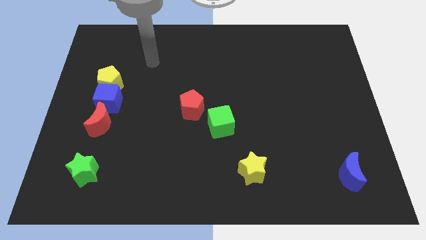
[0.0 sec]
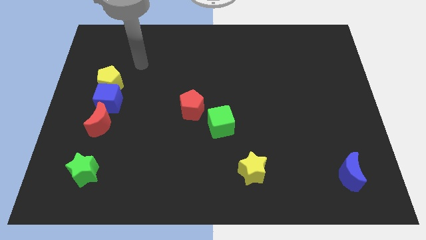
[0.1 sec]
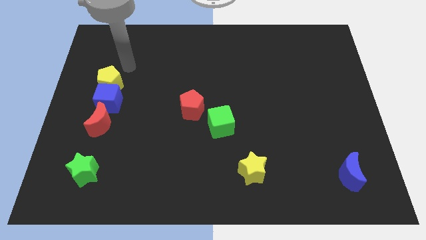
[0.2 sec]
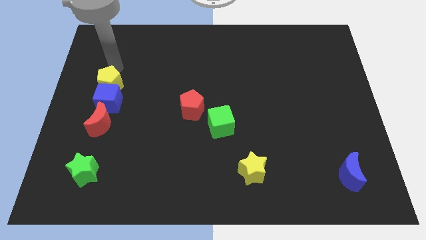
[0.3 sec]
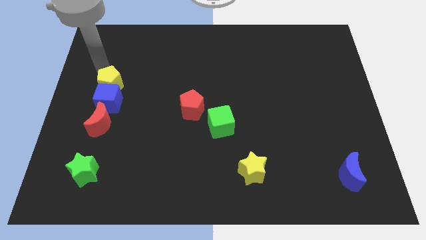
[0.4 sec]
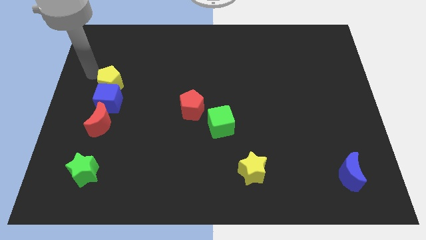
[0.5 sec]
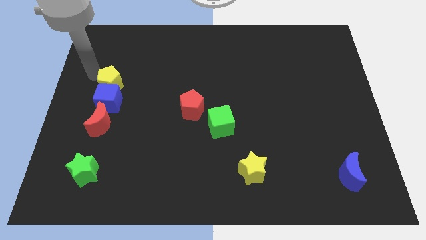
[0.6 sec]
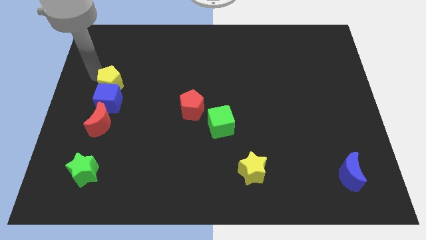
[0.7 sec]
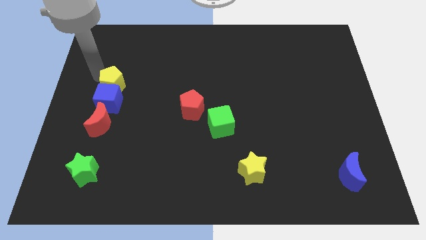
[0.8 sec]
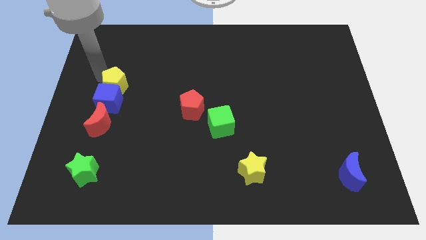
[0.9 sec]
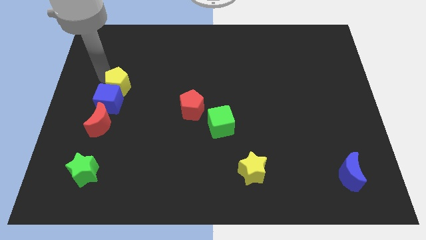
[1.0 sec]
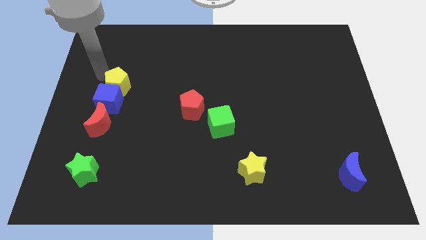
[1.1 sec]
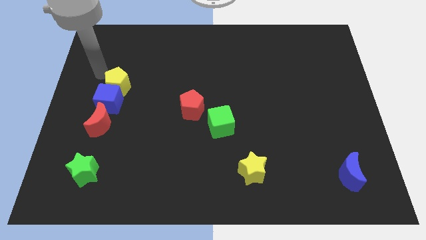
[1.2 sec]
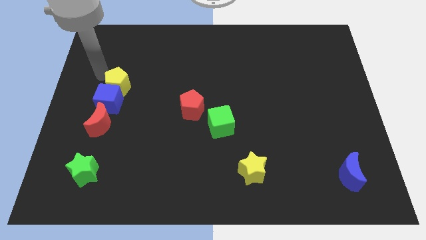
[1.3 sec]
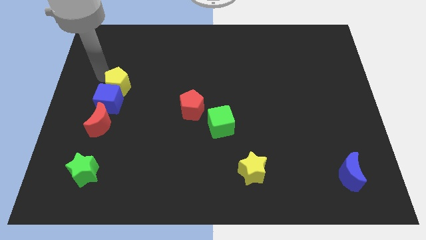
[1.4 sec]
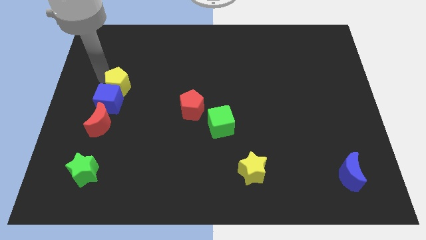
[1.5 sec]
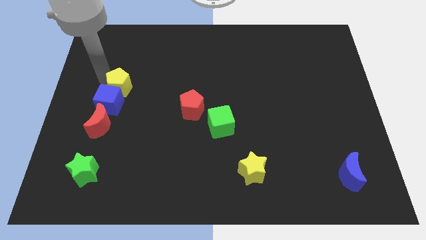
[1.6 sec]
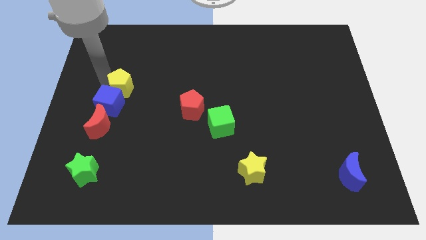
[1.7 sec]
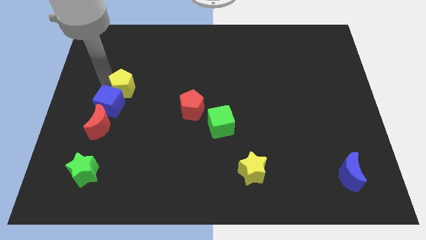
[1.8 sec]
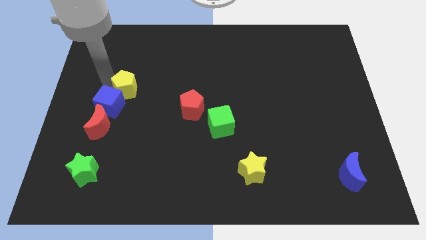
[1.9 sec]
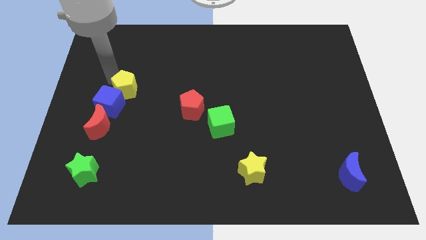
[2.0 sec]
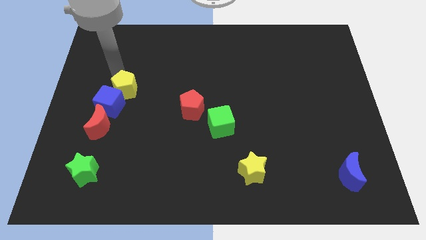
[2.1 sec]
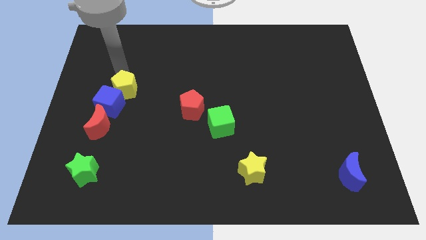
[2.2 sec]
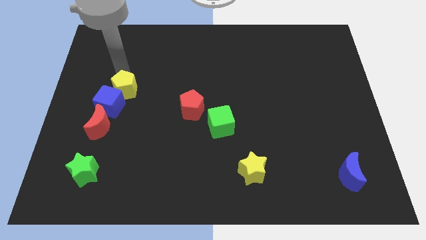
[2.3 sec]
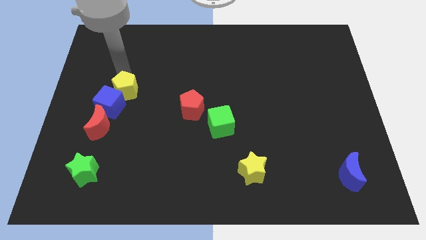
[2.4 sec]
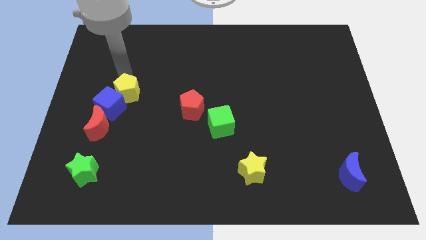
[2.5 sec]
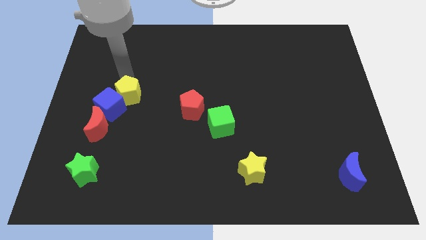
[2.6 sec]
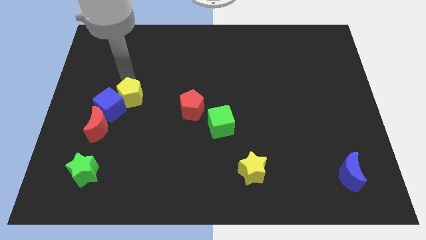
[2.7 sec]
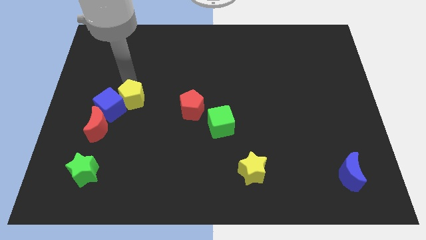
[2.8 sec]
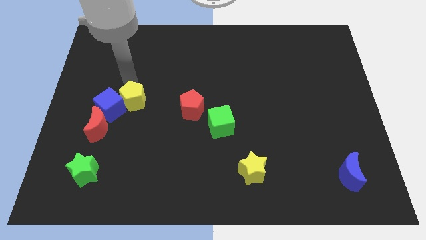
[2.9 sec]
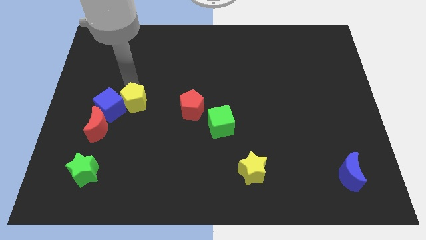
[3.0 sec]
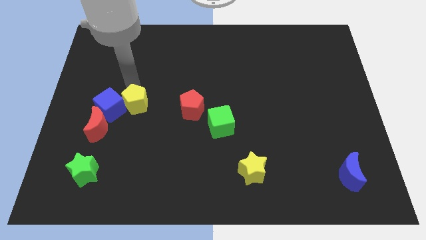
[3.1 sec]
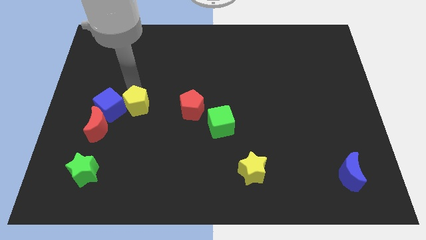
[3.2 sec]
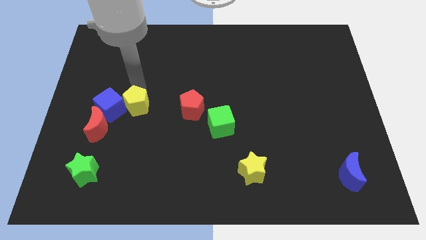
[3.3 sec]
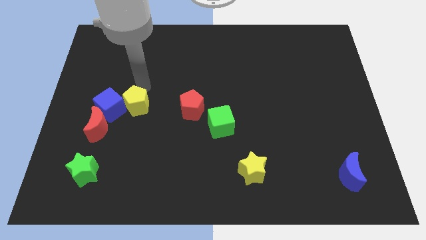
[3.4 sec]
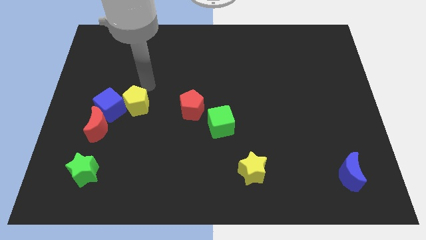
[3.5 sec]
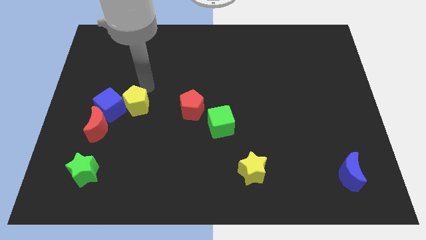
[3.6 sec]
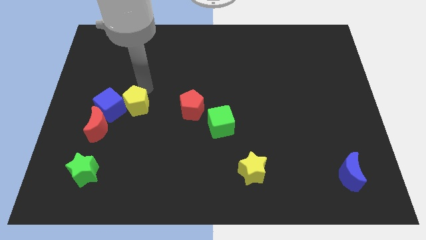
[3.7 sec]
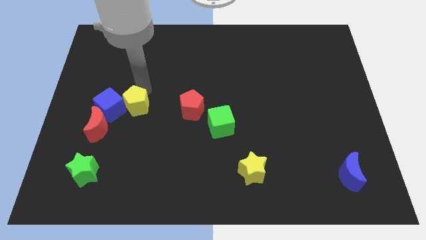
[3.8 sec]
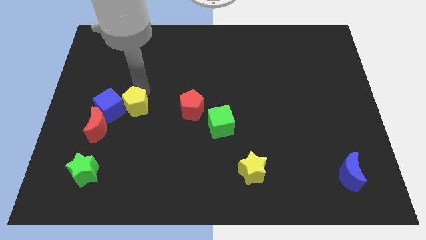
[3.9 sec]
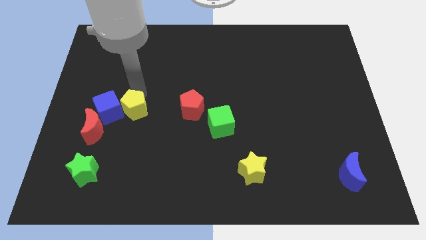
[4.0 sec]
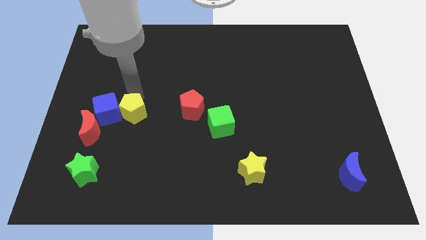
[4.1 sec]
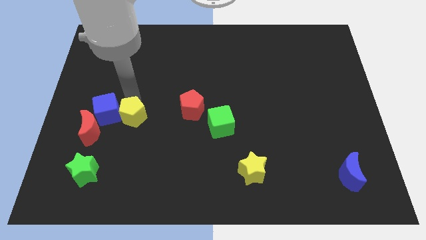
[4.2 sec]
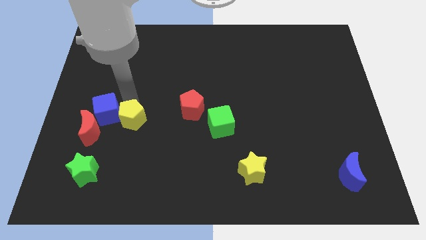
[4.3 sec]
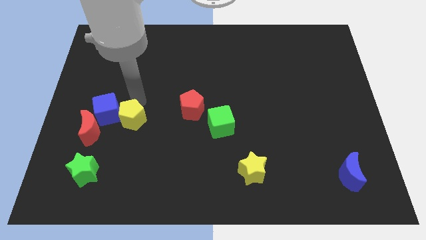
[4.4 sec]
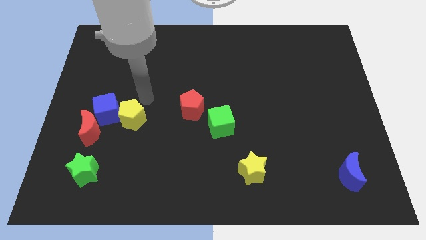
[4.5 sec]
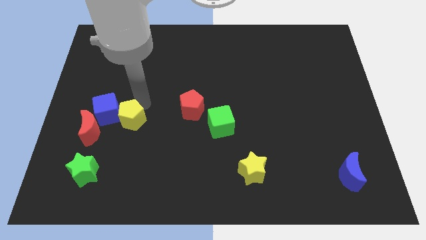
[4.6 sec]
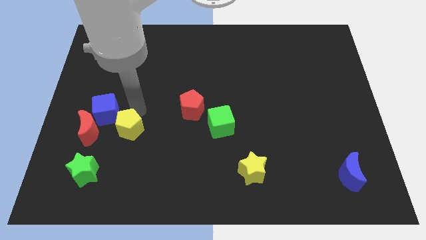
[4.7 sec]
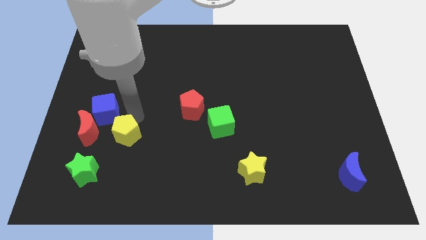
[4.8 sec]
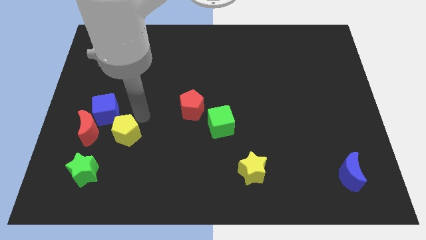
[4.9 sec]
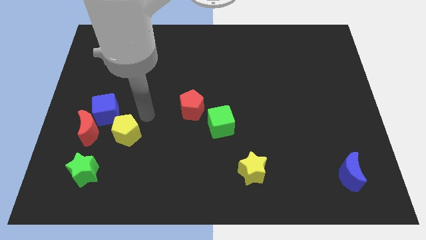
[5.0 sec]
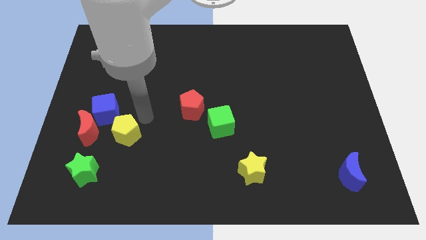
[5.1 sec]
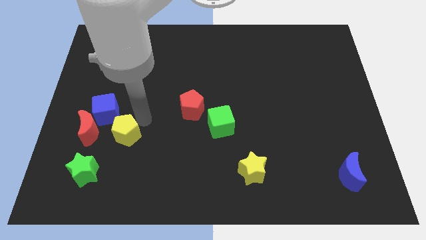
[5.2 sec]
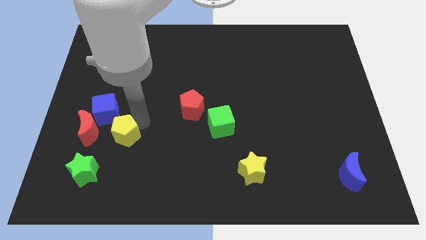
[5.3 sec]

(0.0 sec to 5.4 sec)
move the yellow pentagon to the bottom right of the red moon

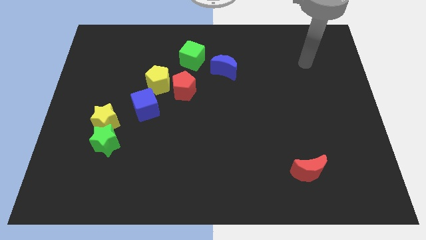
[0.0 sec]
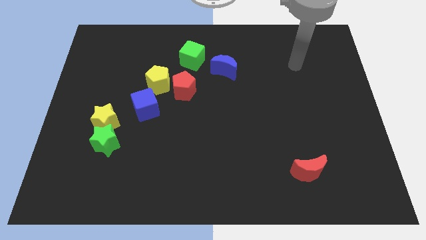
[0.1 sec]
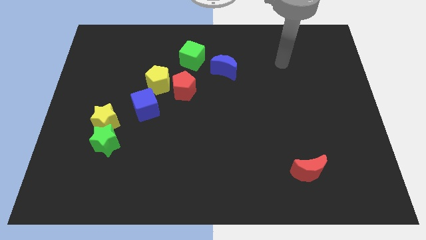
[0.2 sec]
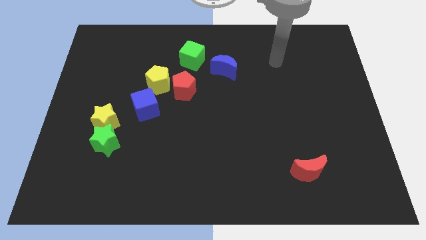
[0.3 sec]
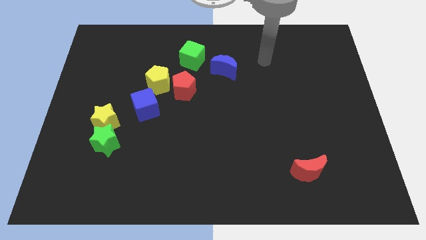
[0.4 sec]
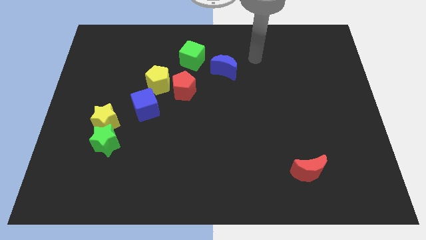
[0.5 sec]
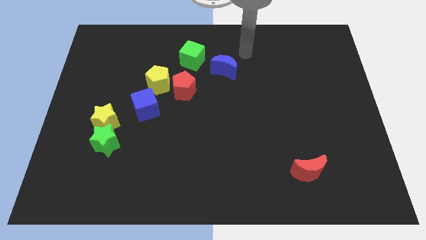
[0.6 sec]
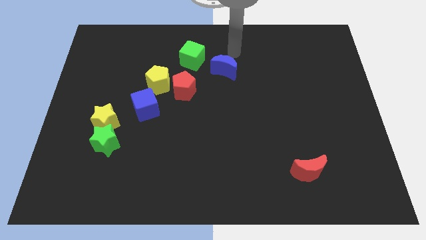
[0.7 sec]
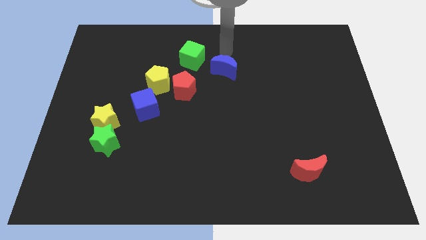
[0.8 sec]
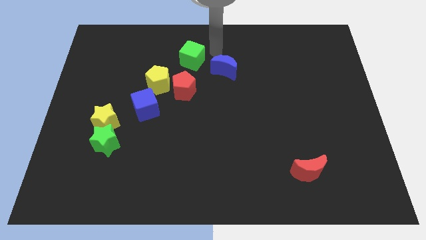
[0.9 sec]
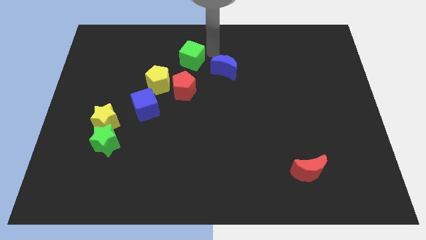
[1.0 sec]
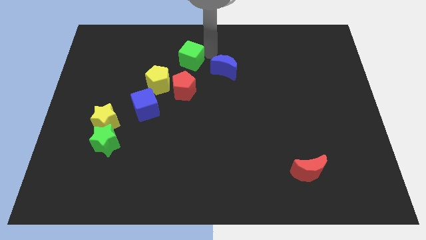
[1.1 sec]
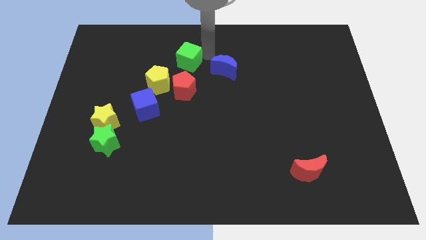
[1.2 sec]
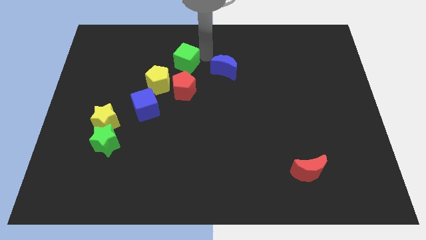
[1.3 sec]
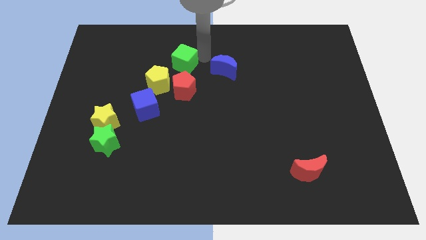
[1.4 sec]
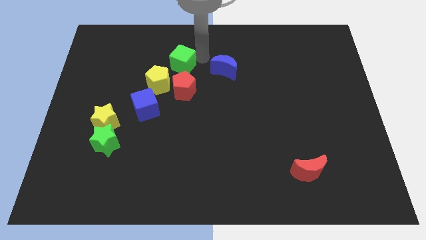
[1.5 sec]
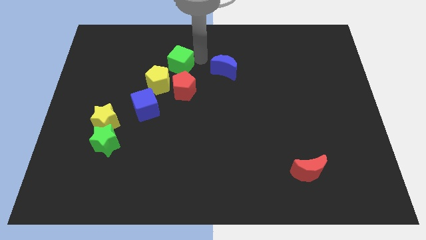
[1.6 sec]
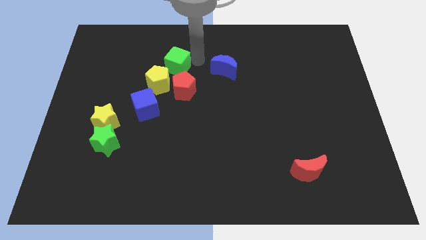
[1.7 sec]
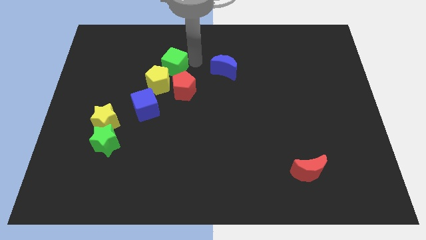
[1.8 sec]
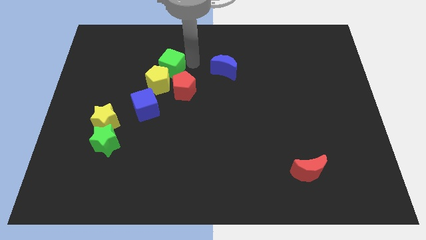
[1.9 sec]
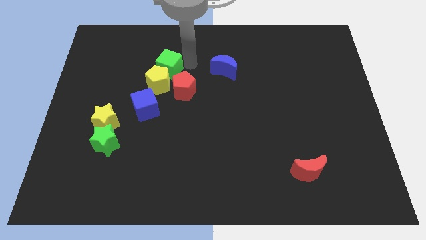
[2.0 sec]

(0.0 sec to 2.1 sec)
push the green cube above the blue cube

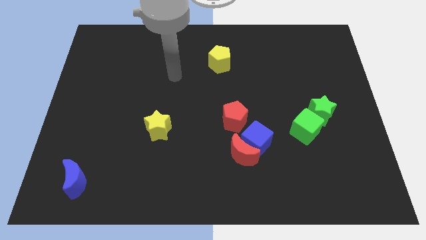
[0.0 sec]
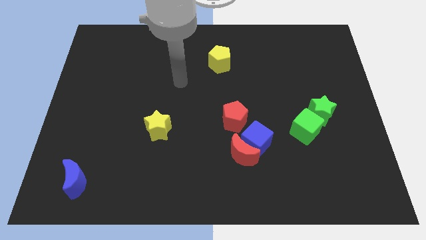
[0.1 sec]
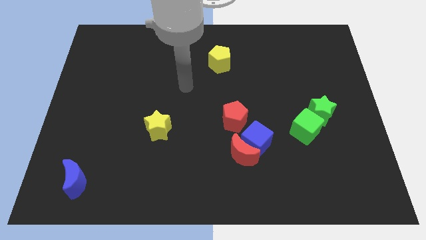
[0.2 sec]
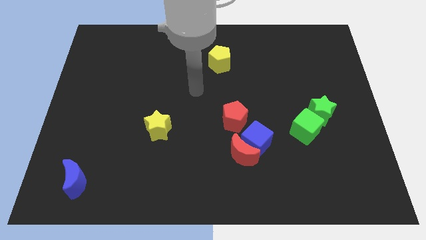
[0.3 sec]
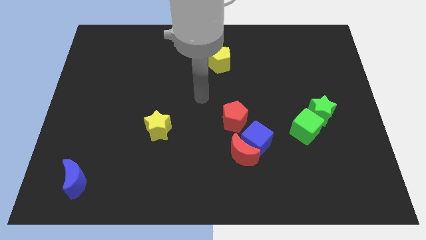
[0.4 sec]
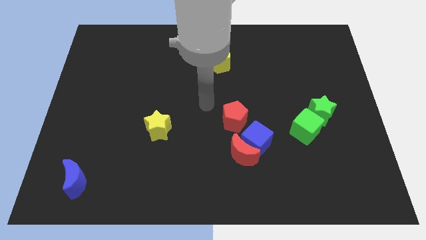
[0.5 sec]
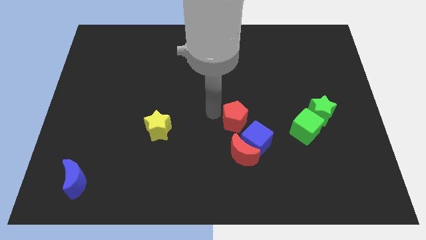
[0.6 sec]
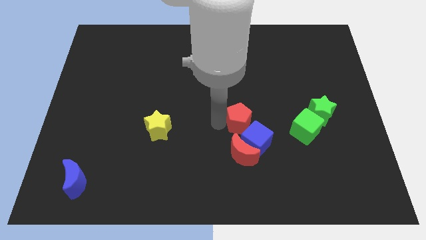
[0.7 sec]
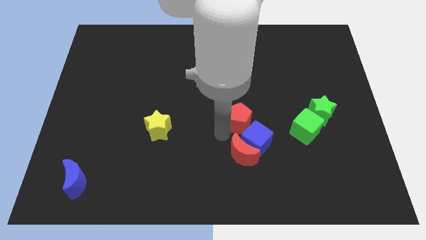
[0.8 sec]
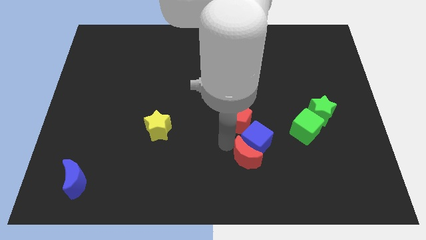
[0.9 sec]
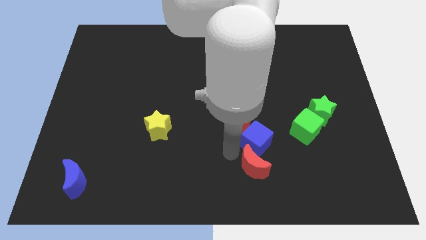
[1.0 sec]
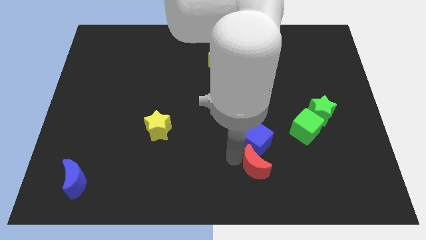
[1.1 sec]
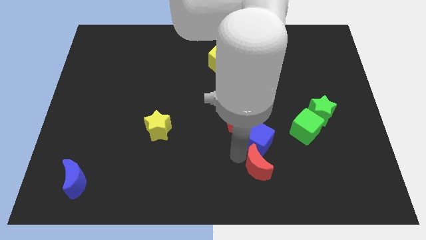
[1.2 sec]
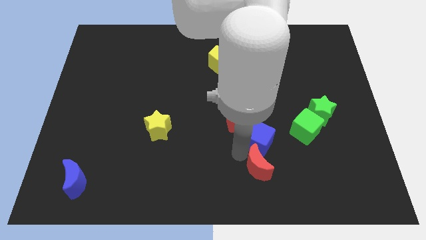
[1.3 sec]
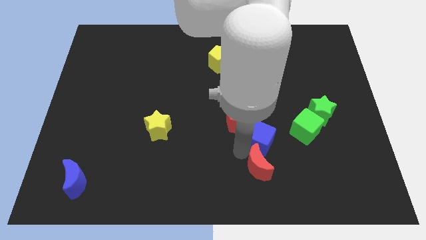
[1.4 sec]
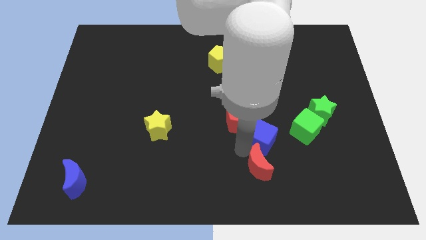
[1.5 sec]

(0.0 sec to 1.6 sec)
push the blue cube to the right side of the red pentagon
